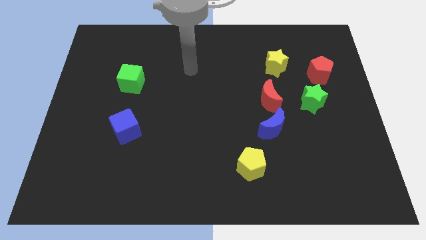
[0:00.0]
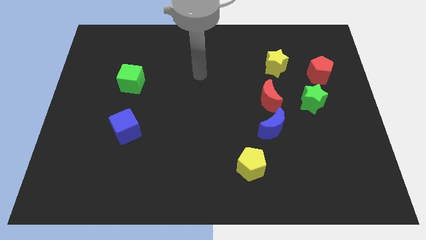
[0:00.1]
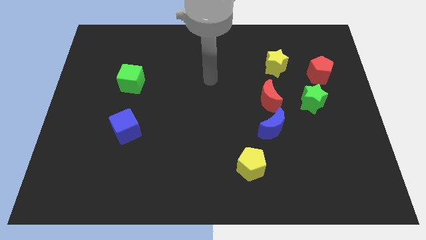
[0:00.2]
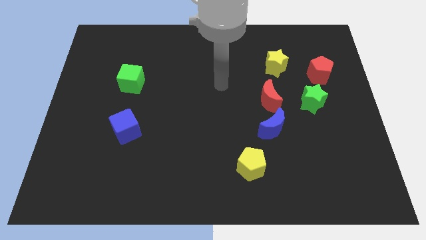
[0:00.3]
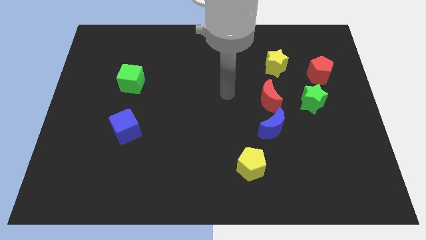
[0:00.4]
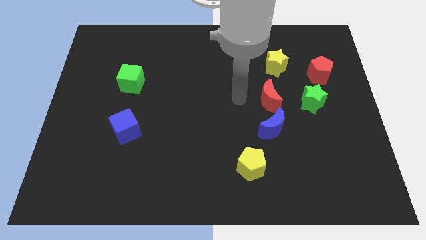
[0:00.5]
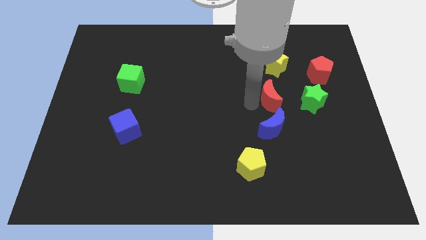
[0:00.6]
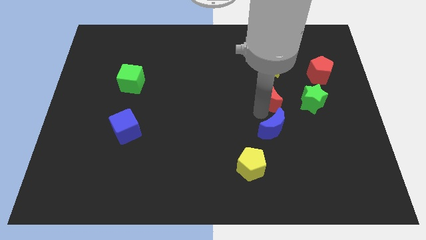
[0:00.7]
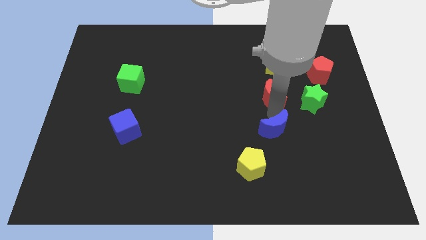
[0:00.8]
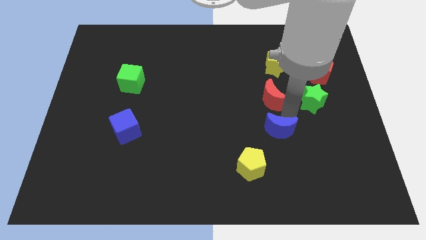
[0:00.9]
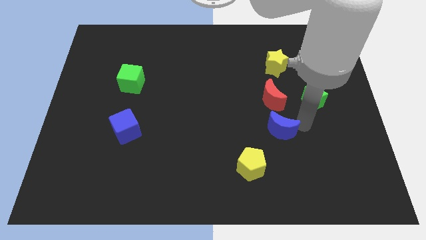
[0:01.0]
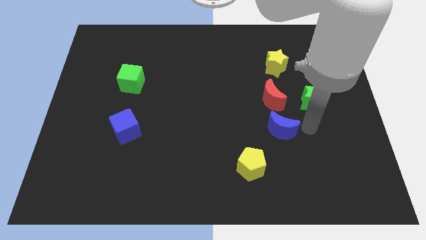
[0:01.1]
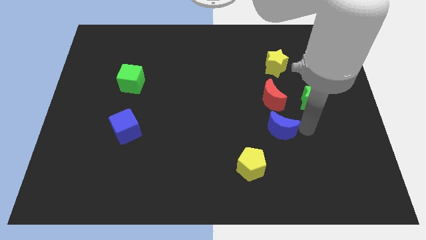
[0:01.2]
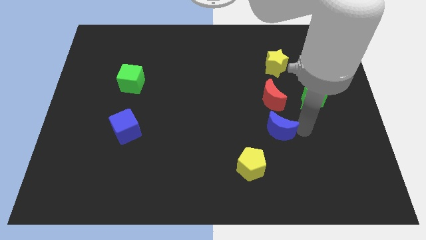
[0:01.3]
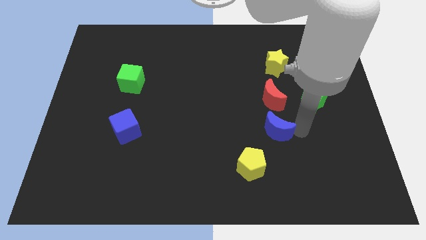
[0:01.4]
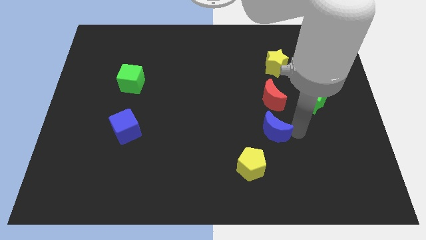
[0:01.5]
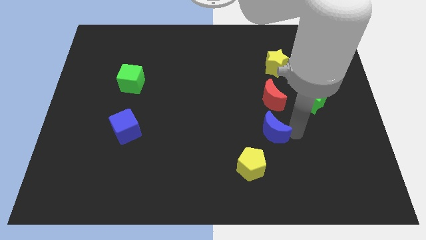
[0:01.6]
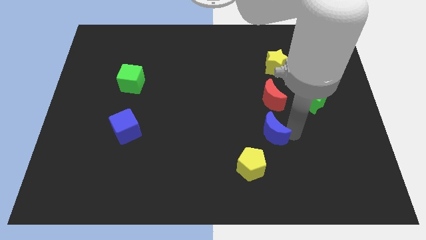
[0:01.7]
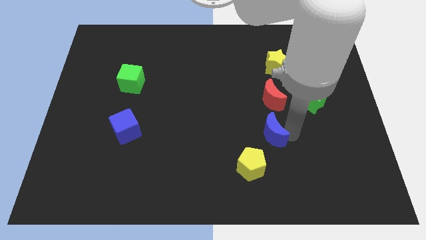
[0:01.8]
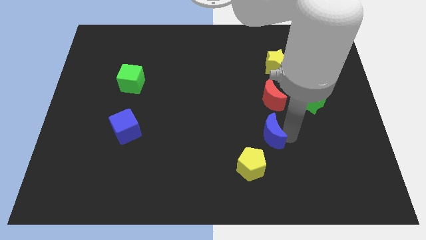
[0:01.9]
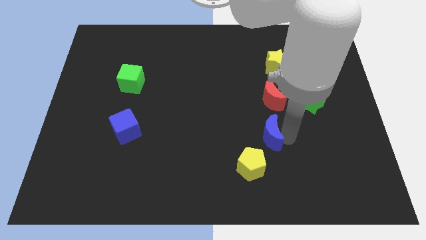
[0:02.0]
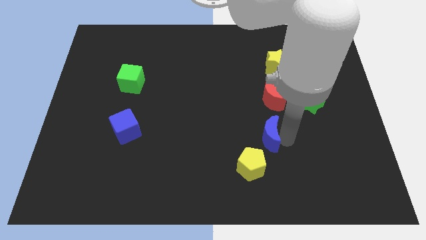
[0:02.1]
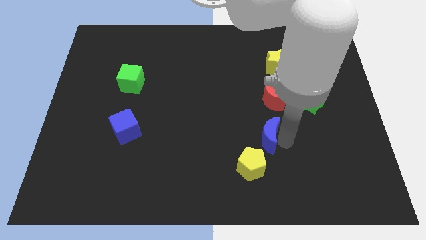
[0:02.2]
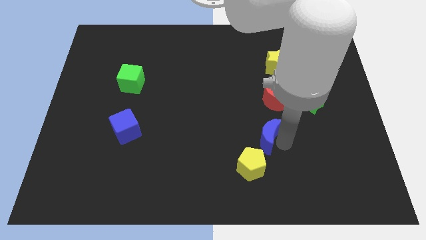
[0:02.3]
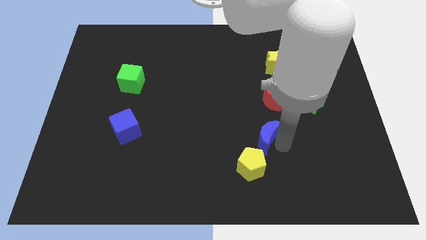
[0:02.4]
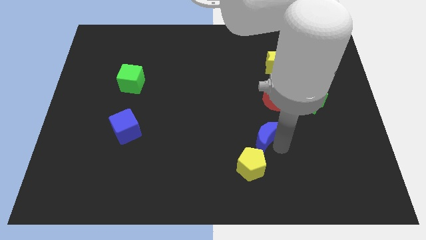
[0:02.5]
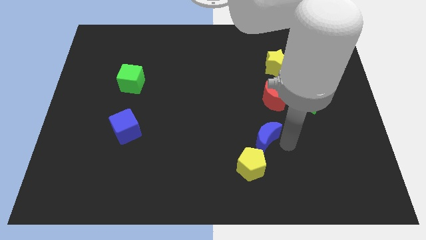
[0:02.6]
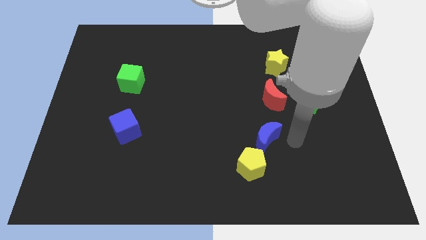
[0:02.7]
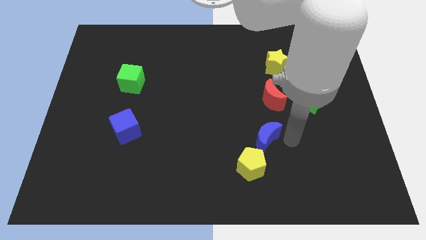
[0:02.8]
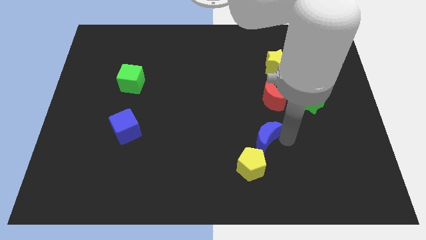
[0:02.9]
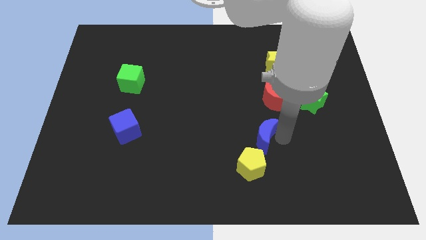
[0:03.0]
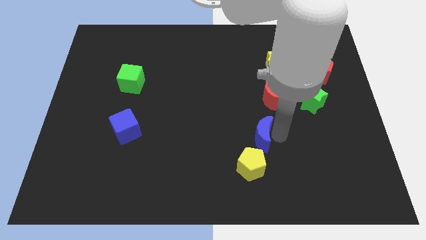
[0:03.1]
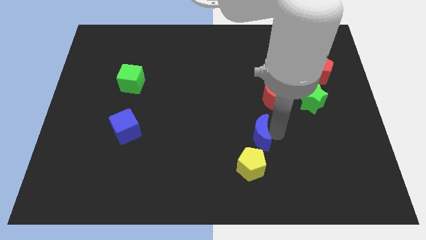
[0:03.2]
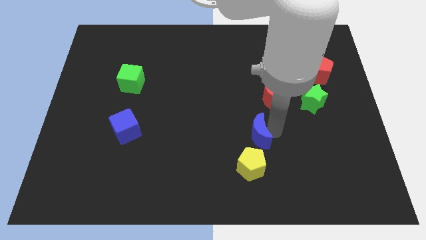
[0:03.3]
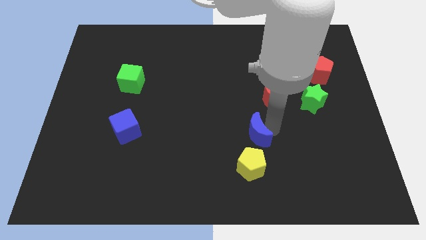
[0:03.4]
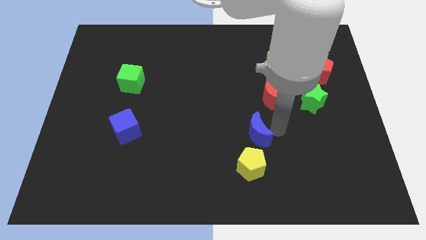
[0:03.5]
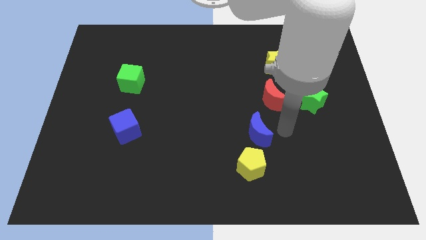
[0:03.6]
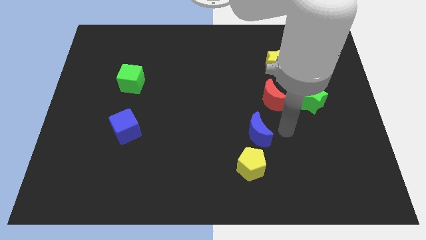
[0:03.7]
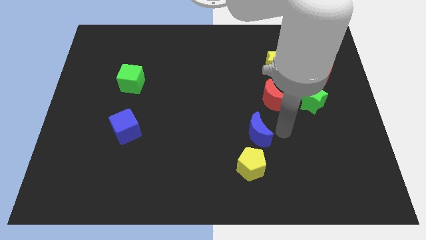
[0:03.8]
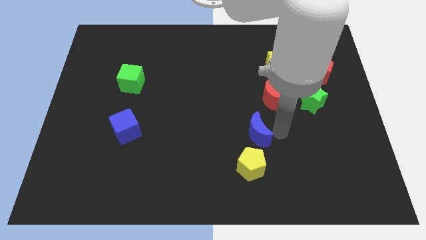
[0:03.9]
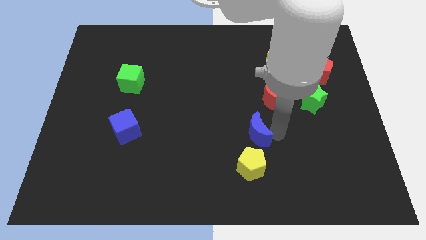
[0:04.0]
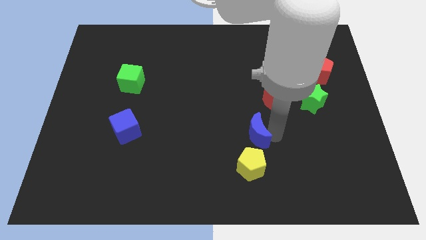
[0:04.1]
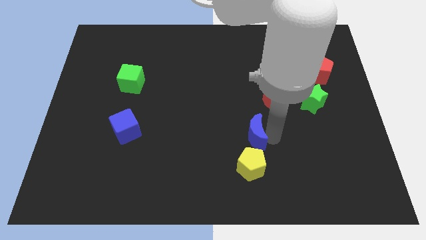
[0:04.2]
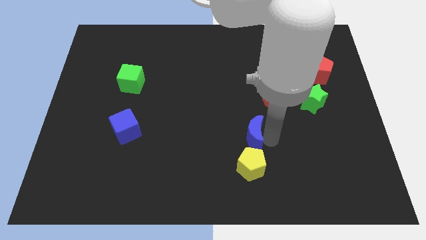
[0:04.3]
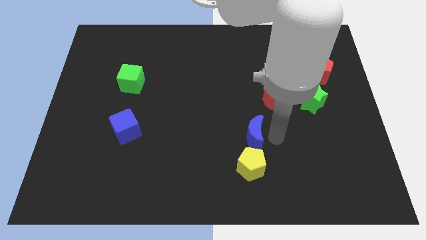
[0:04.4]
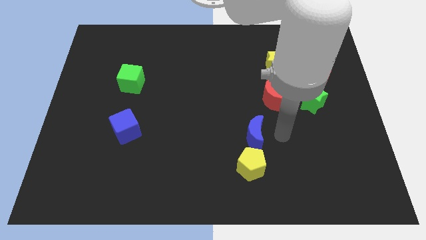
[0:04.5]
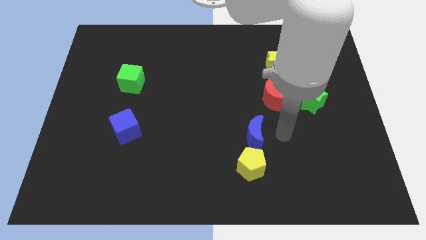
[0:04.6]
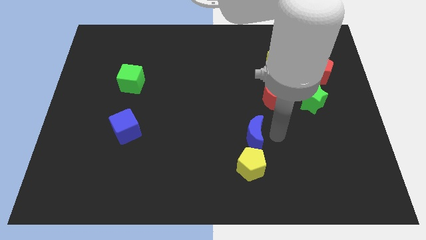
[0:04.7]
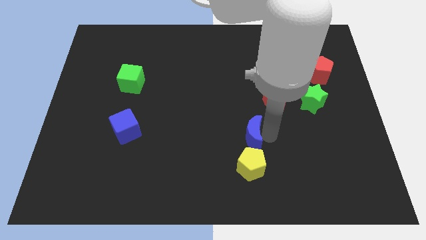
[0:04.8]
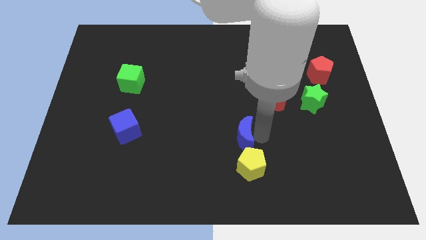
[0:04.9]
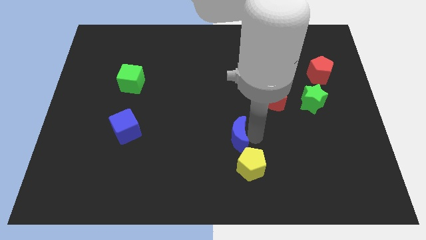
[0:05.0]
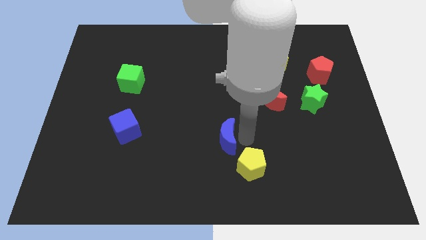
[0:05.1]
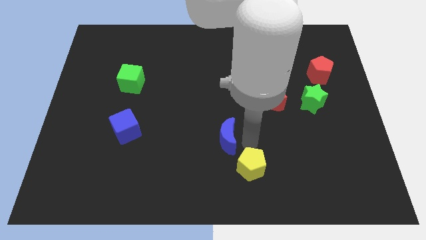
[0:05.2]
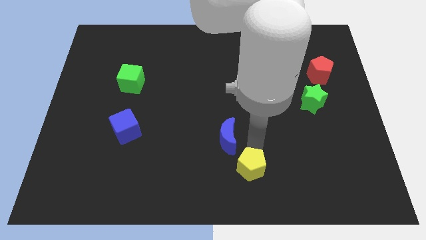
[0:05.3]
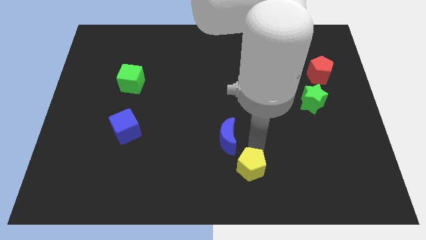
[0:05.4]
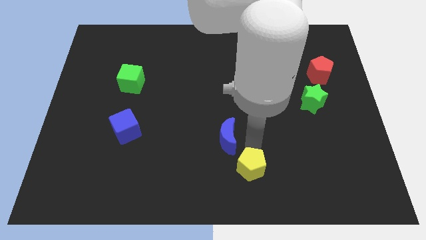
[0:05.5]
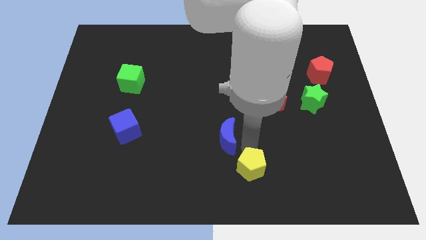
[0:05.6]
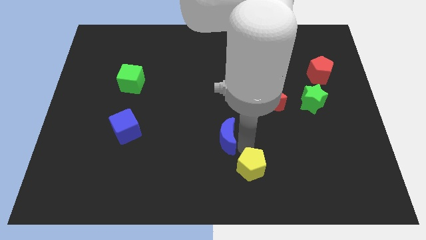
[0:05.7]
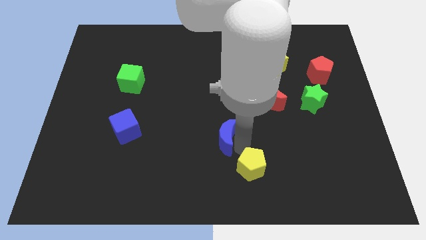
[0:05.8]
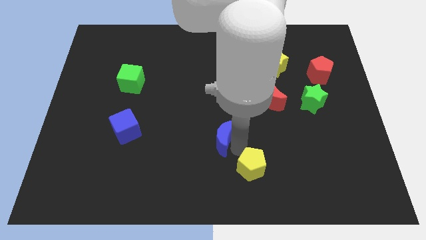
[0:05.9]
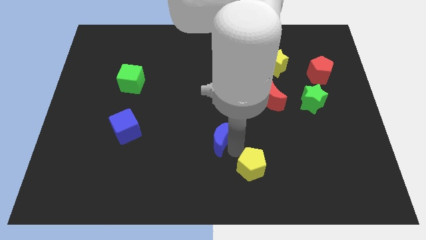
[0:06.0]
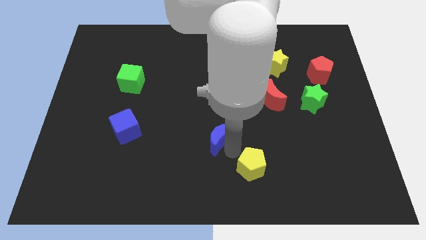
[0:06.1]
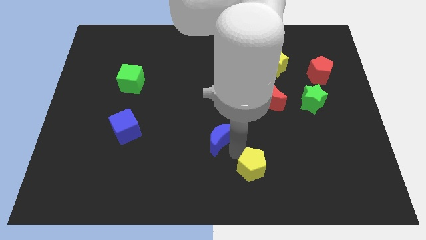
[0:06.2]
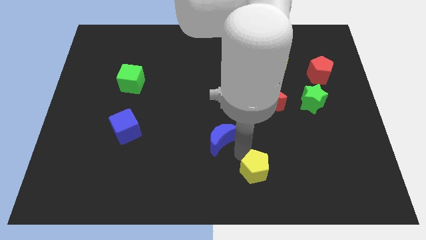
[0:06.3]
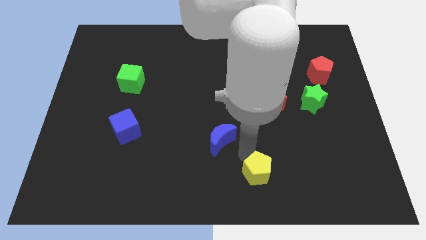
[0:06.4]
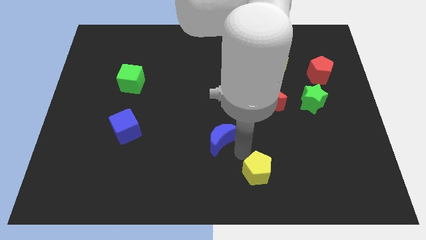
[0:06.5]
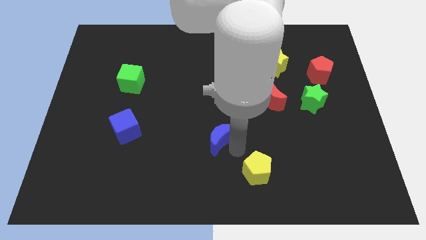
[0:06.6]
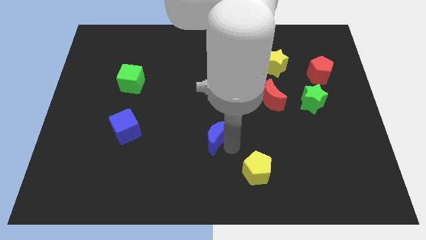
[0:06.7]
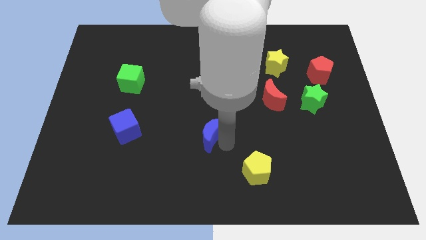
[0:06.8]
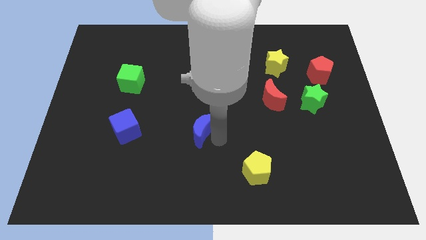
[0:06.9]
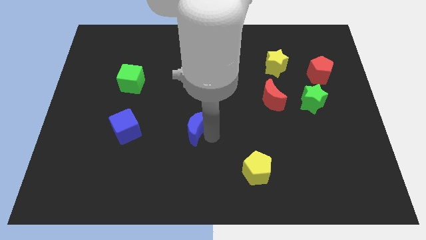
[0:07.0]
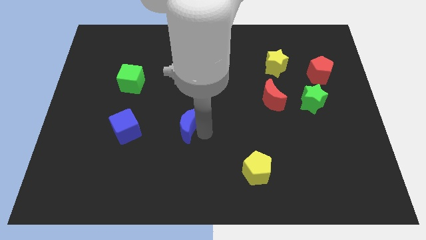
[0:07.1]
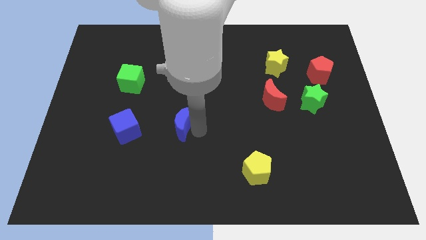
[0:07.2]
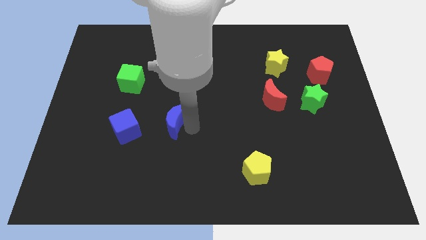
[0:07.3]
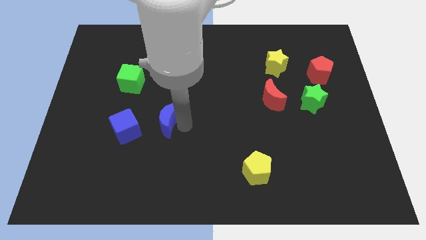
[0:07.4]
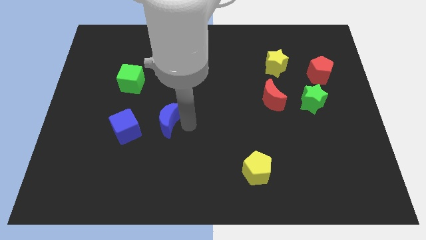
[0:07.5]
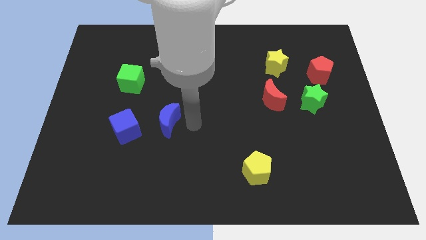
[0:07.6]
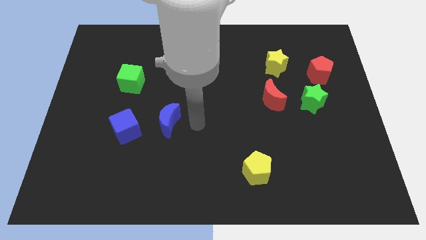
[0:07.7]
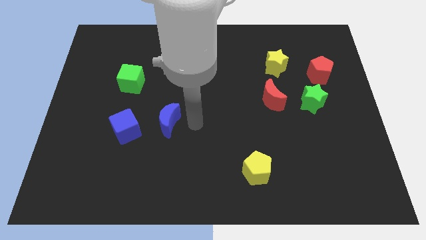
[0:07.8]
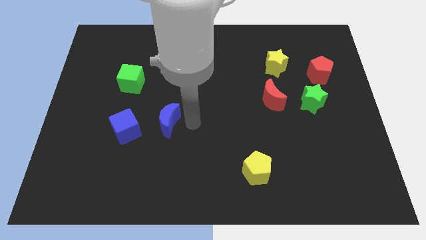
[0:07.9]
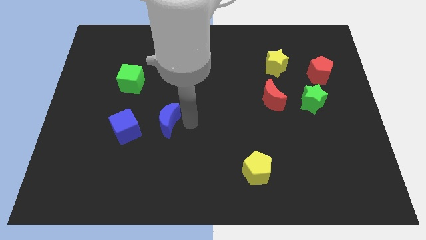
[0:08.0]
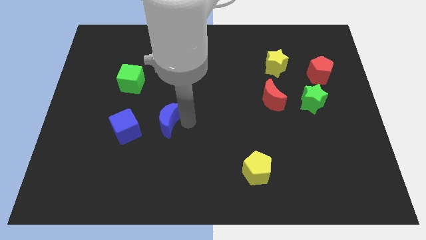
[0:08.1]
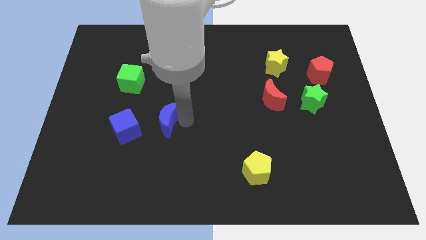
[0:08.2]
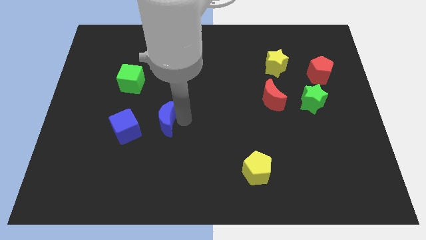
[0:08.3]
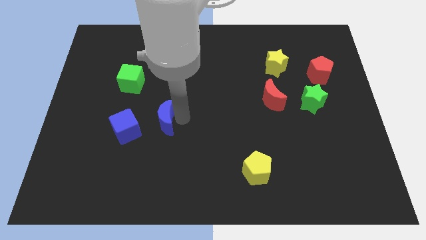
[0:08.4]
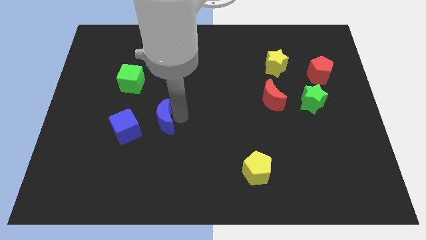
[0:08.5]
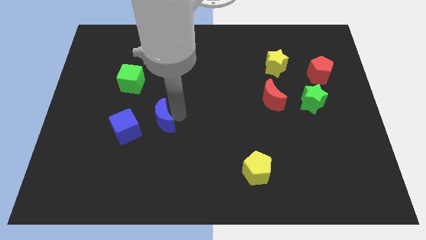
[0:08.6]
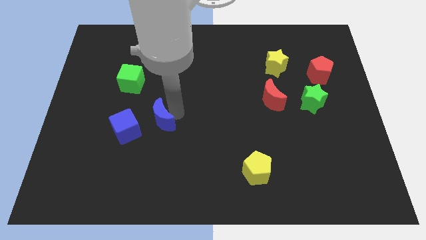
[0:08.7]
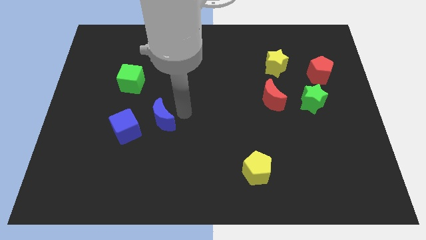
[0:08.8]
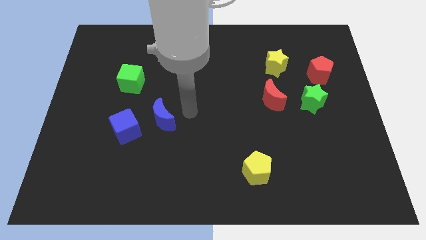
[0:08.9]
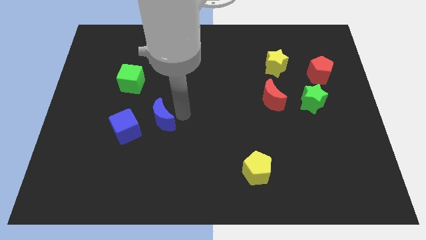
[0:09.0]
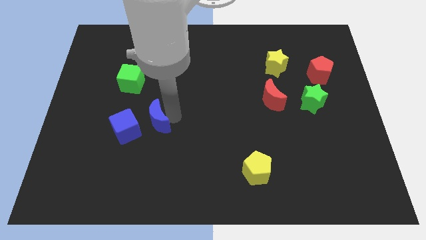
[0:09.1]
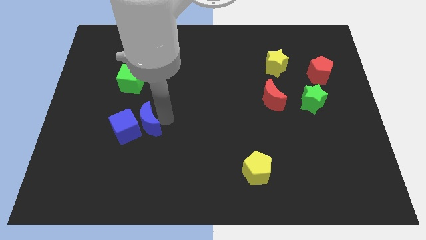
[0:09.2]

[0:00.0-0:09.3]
slide the blue moon next to the blue cube
